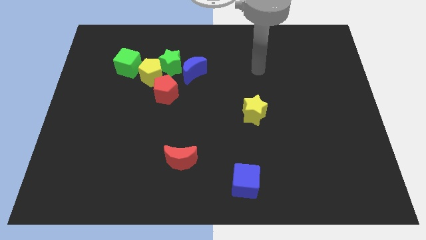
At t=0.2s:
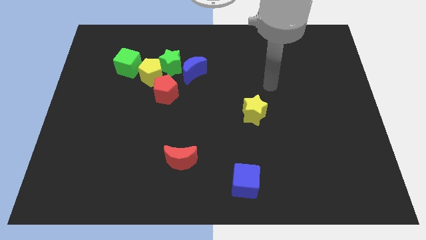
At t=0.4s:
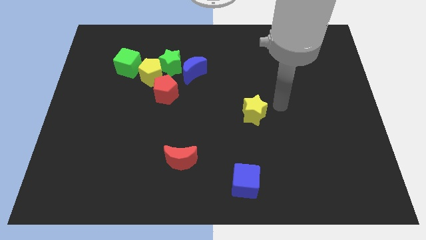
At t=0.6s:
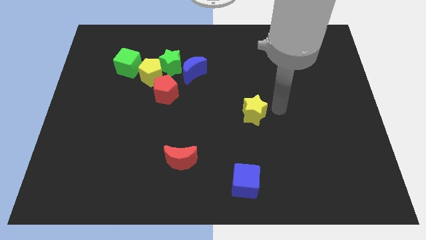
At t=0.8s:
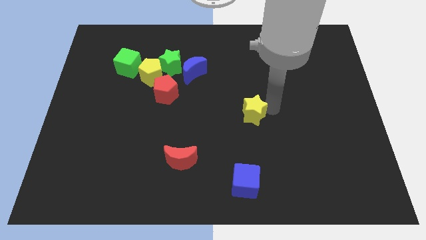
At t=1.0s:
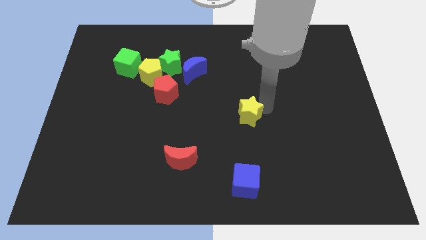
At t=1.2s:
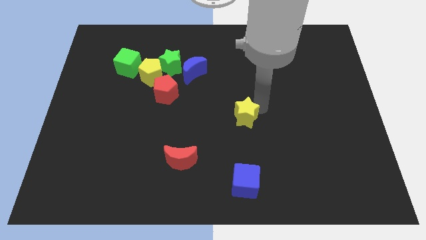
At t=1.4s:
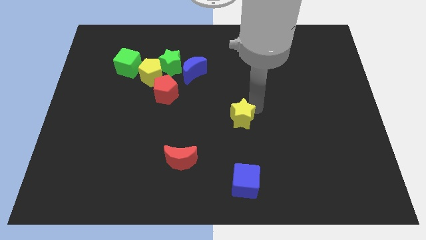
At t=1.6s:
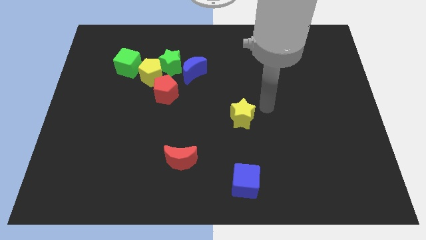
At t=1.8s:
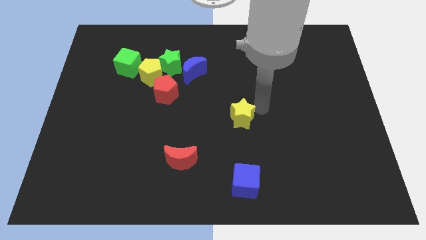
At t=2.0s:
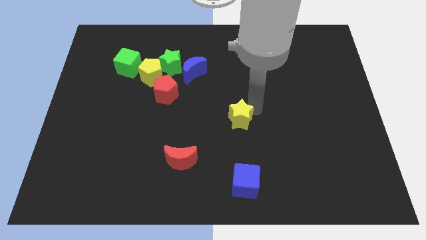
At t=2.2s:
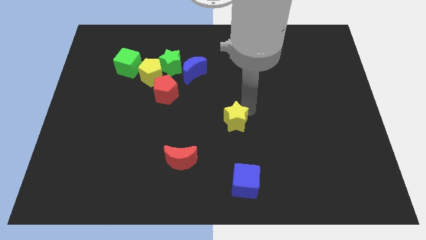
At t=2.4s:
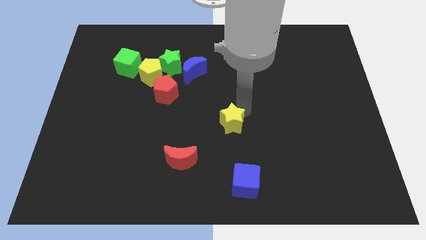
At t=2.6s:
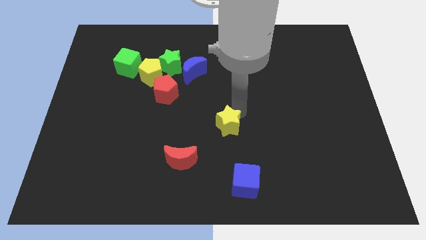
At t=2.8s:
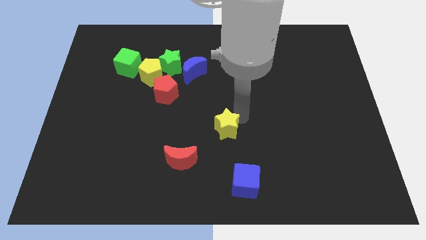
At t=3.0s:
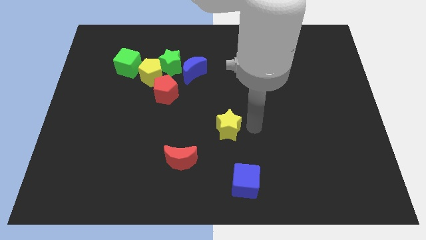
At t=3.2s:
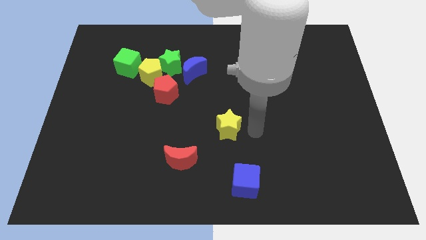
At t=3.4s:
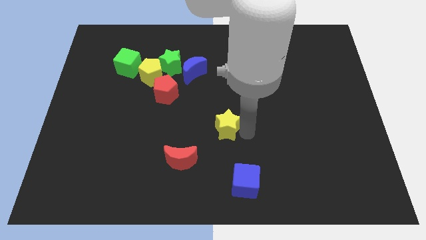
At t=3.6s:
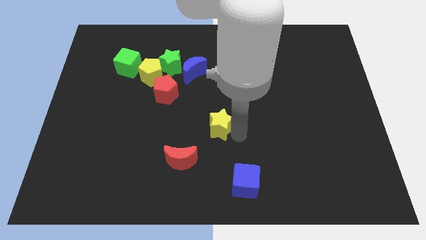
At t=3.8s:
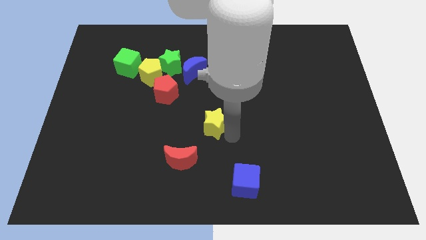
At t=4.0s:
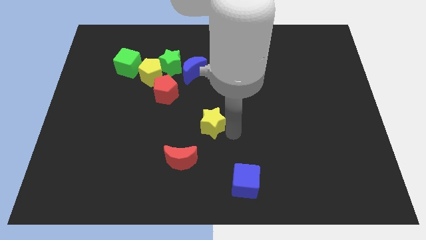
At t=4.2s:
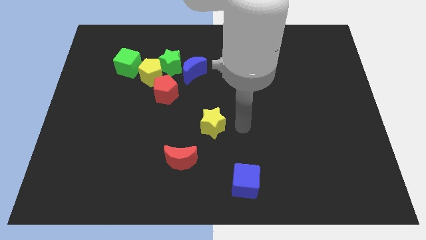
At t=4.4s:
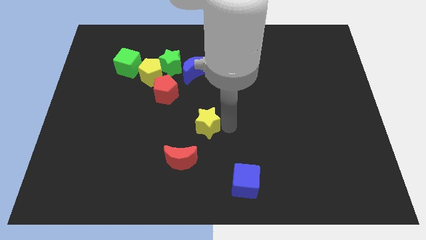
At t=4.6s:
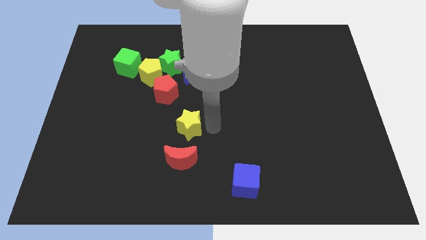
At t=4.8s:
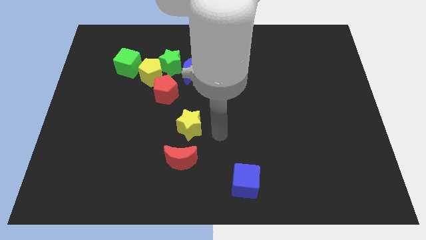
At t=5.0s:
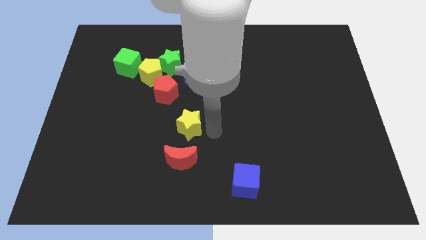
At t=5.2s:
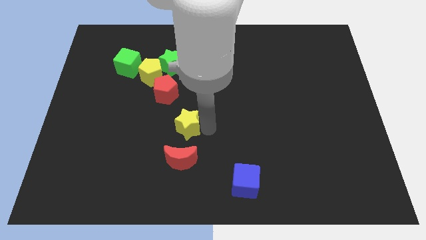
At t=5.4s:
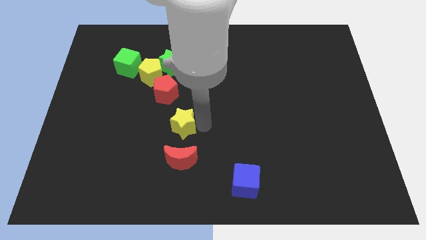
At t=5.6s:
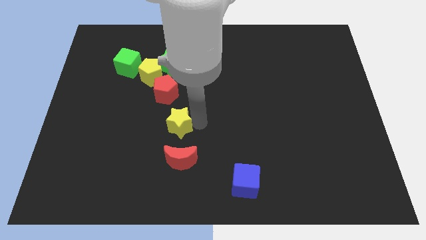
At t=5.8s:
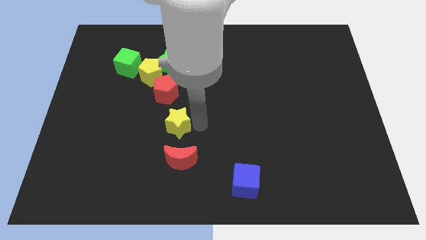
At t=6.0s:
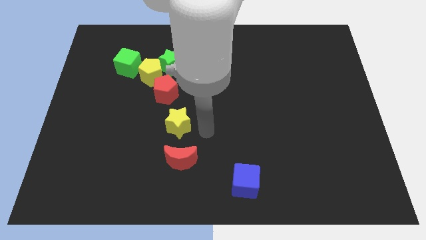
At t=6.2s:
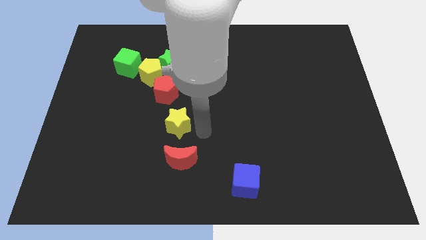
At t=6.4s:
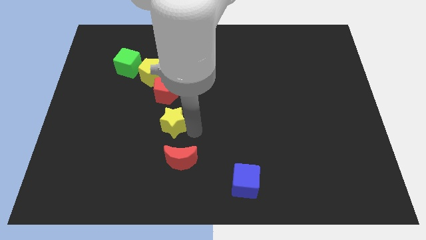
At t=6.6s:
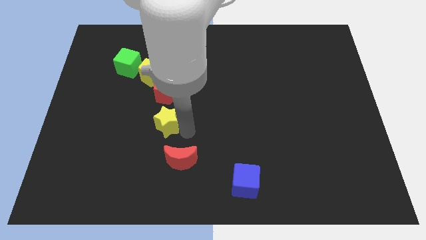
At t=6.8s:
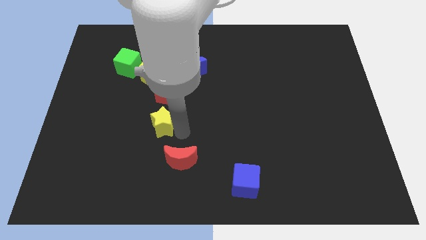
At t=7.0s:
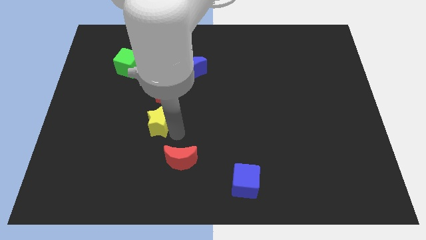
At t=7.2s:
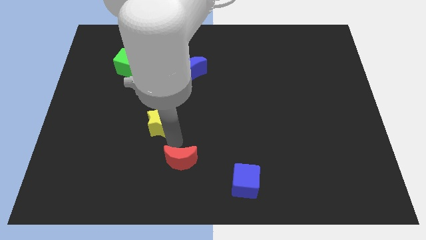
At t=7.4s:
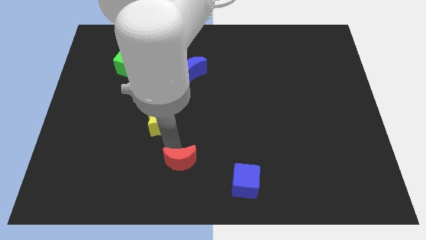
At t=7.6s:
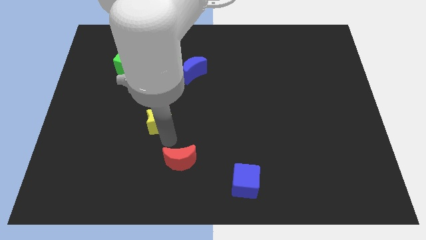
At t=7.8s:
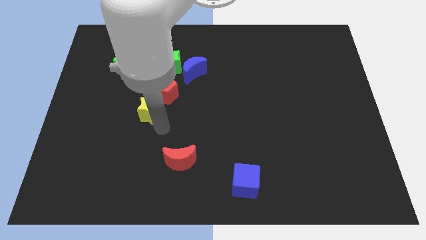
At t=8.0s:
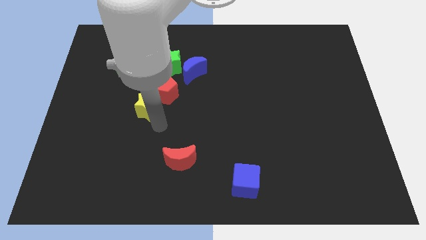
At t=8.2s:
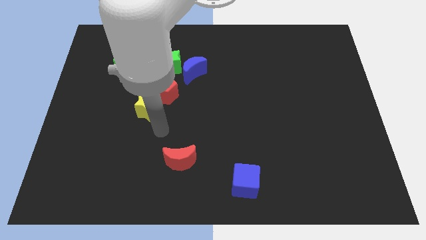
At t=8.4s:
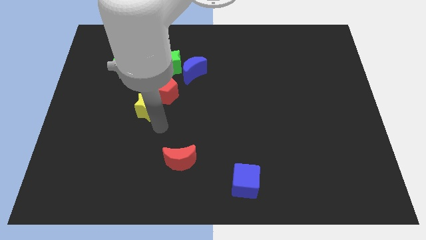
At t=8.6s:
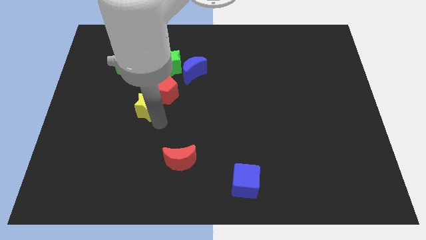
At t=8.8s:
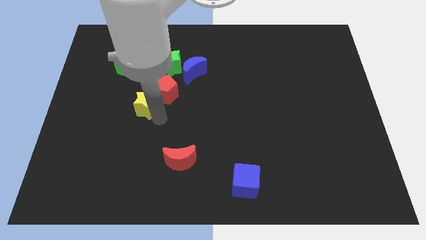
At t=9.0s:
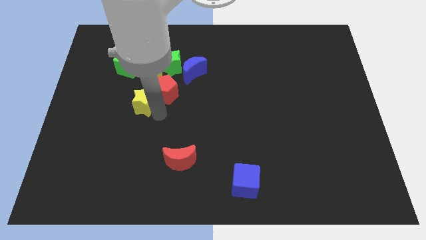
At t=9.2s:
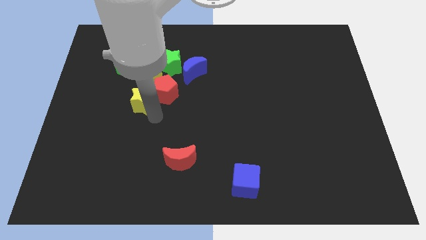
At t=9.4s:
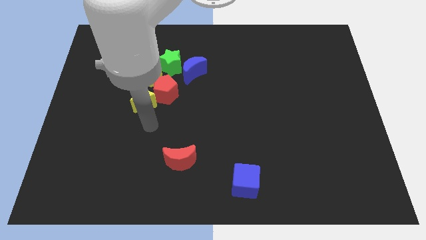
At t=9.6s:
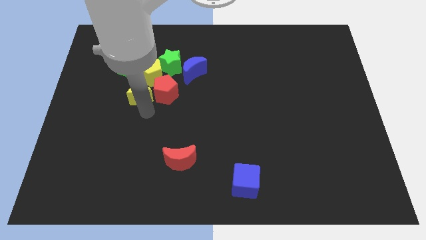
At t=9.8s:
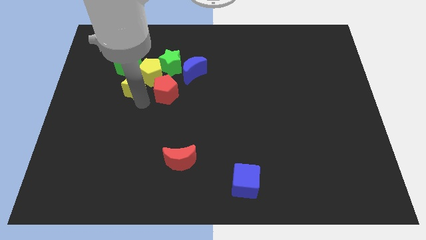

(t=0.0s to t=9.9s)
slide the yellow star close to the yellow pentagon

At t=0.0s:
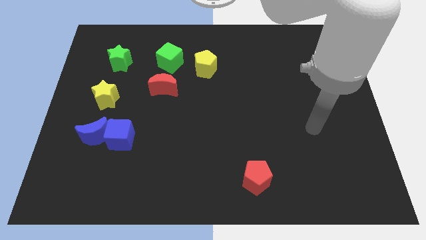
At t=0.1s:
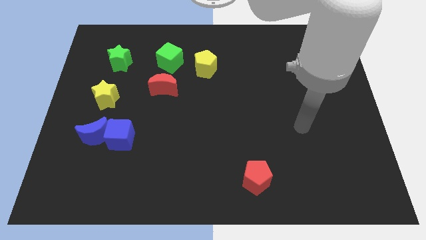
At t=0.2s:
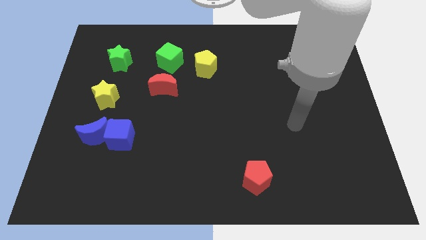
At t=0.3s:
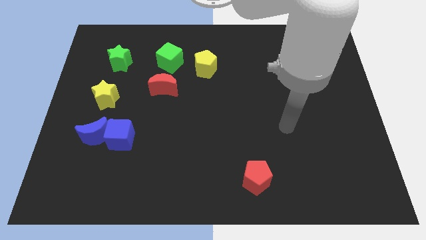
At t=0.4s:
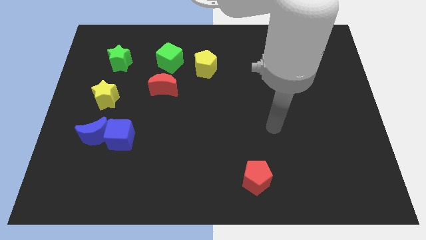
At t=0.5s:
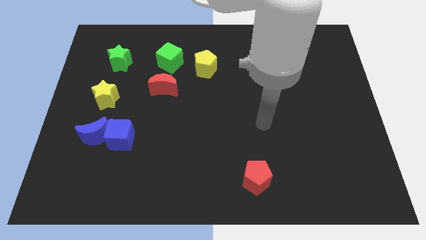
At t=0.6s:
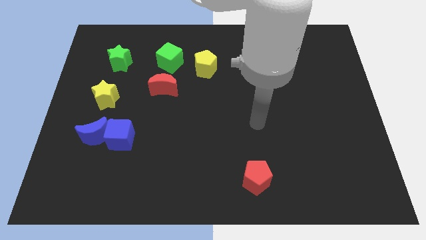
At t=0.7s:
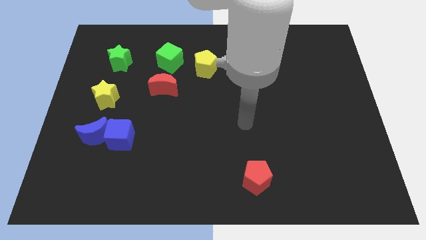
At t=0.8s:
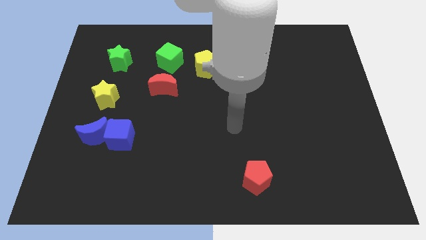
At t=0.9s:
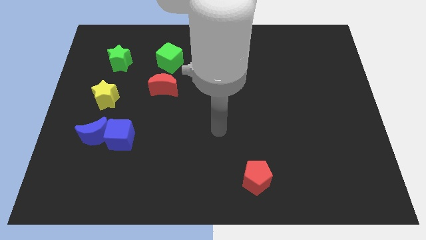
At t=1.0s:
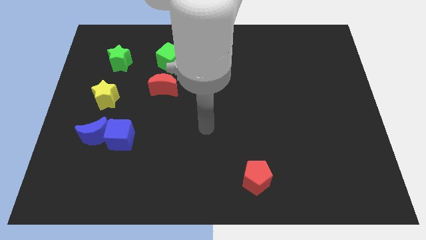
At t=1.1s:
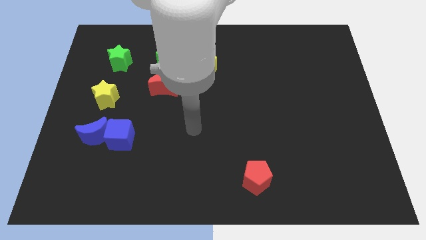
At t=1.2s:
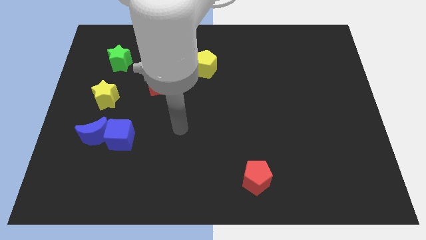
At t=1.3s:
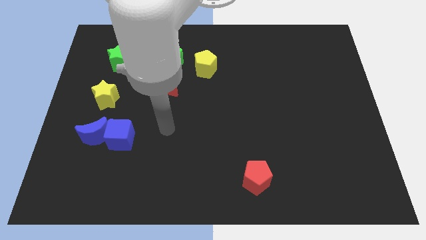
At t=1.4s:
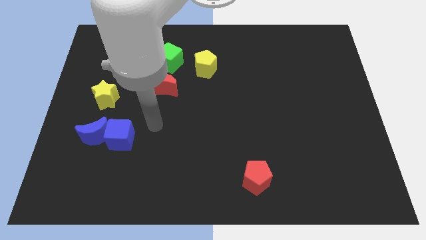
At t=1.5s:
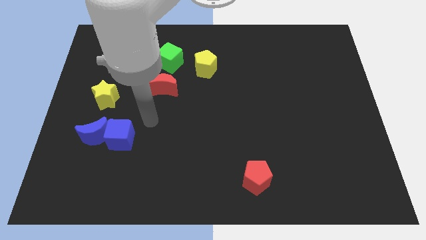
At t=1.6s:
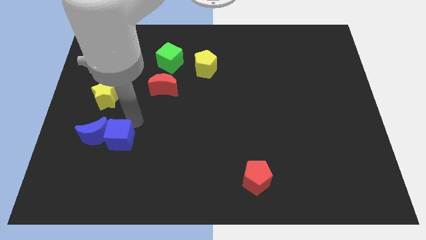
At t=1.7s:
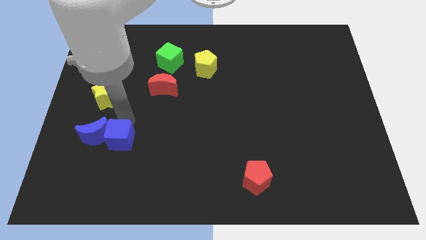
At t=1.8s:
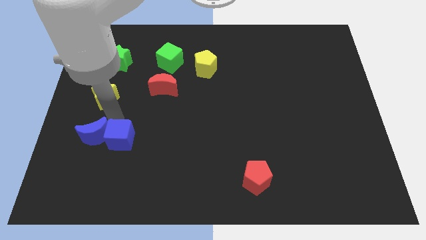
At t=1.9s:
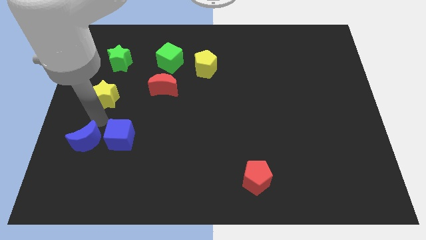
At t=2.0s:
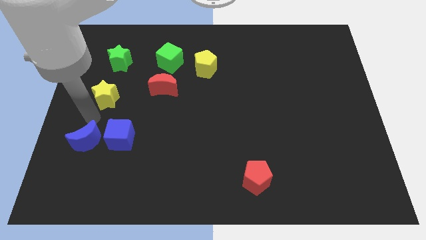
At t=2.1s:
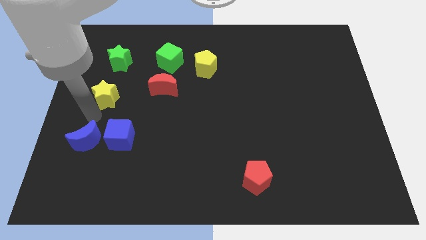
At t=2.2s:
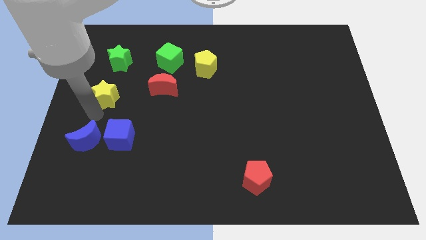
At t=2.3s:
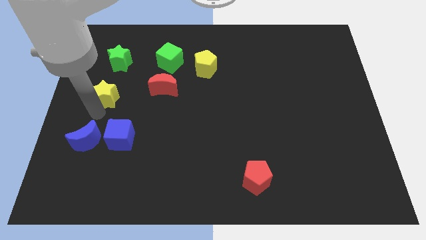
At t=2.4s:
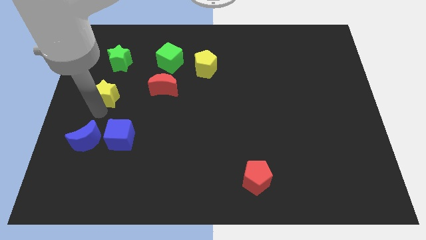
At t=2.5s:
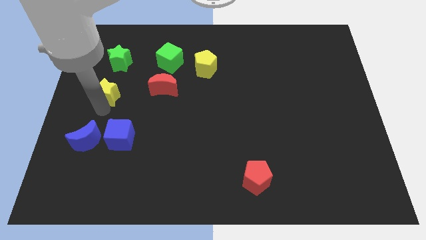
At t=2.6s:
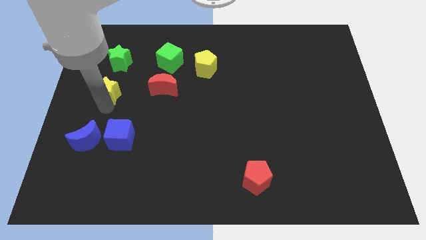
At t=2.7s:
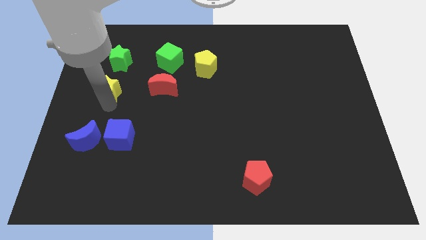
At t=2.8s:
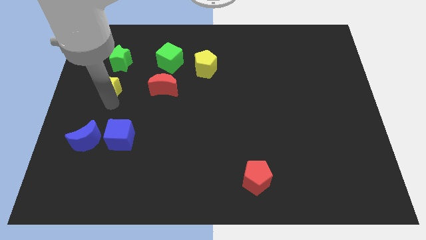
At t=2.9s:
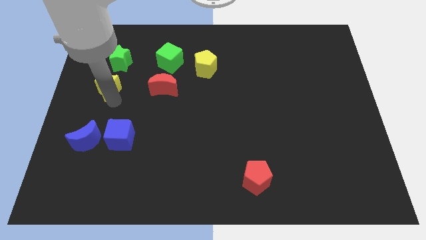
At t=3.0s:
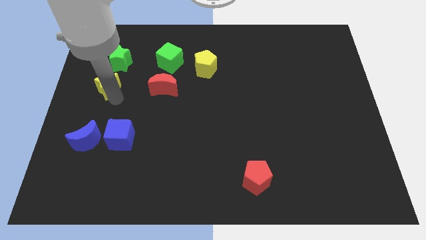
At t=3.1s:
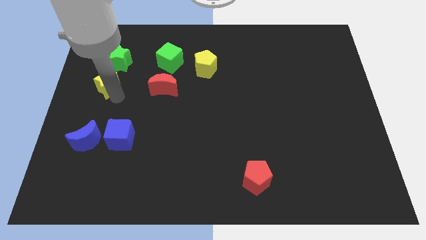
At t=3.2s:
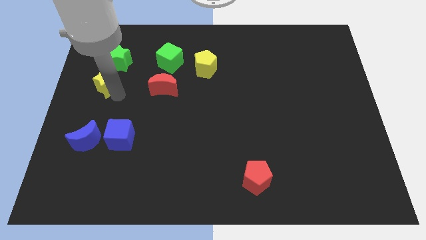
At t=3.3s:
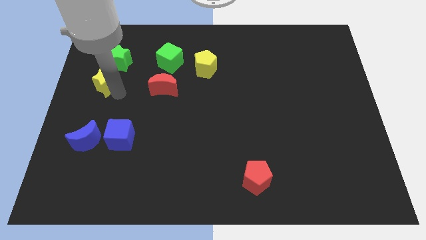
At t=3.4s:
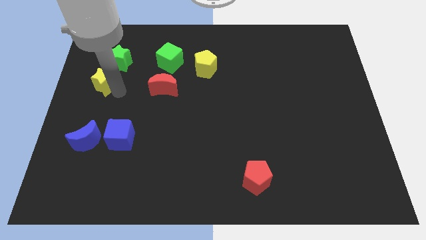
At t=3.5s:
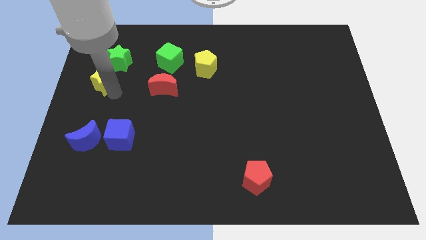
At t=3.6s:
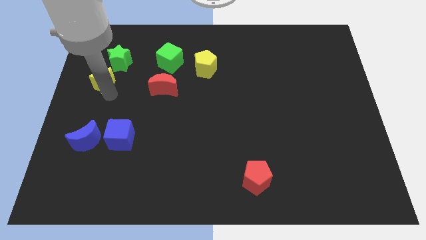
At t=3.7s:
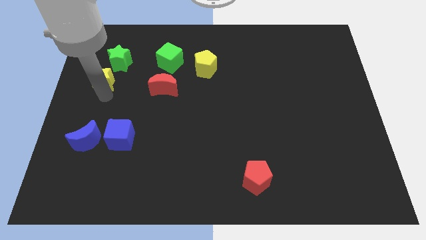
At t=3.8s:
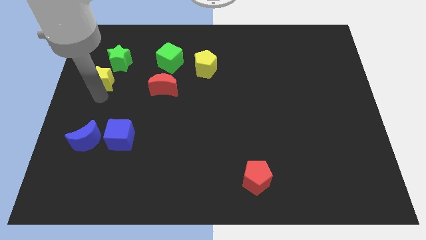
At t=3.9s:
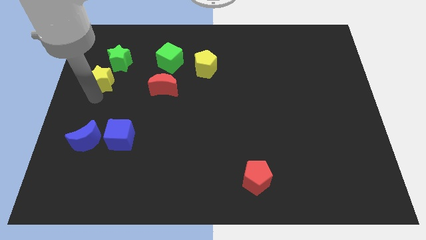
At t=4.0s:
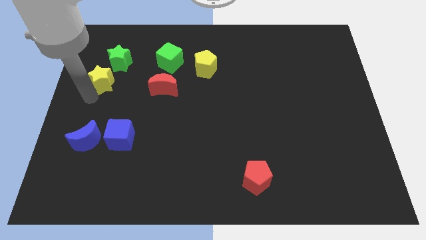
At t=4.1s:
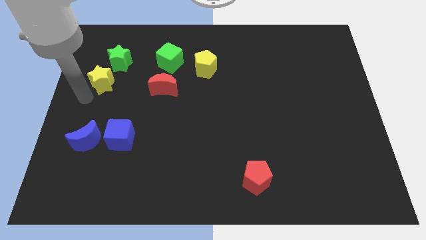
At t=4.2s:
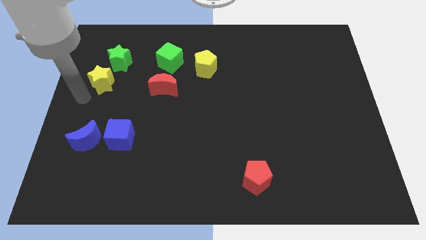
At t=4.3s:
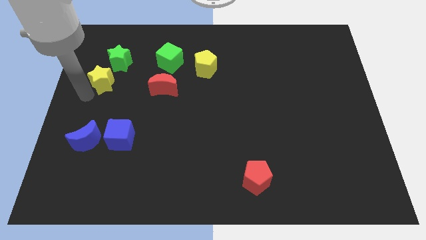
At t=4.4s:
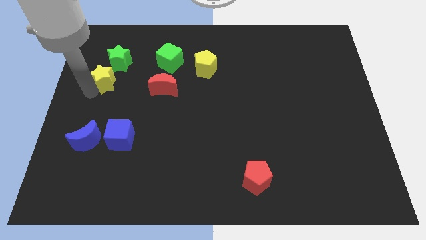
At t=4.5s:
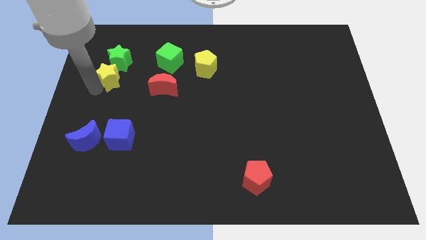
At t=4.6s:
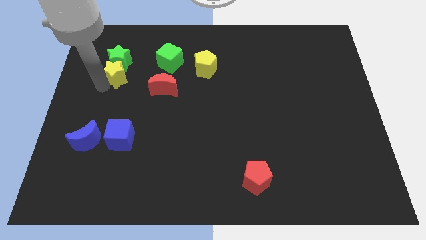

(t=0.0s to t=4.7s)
slide the yellow star next to the green star
